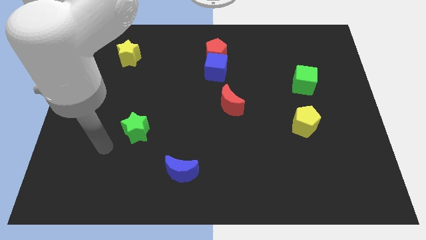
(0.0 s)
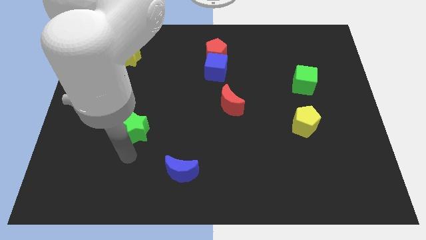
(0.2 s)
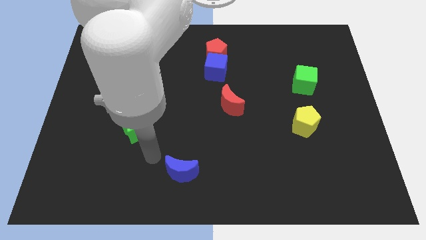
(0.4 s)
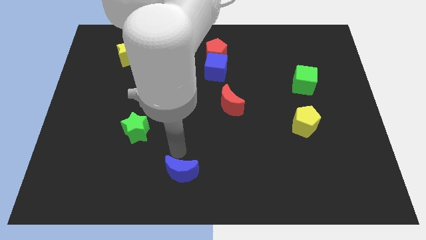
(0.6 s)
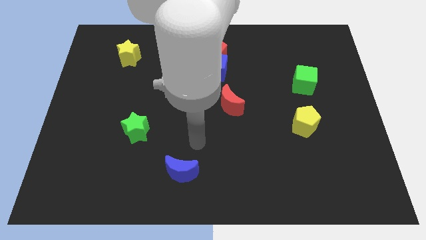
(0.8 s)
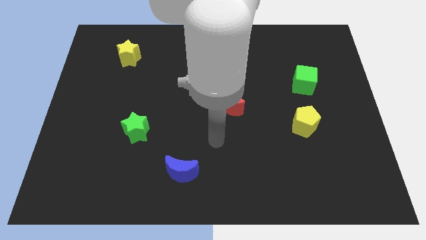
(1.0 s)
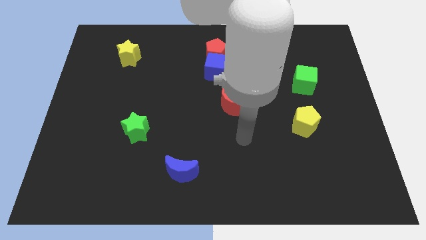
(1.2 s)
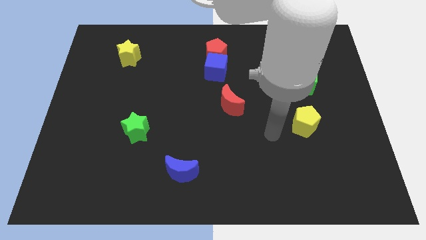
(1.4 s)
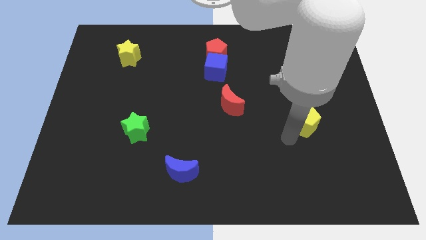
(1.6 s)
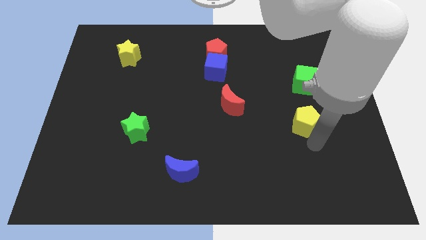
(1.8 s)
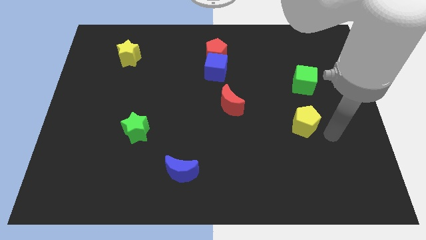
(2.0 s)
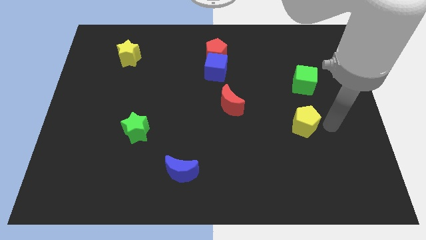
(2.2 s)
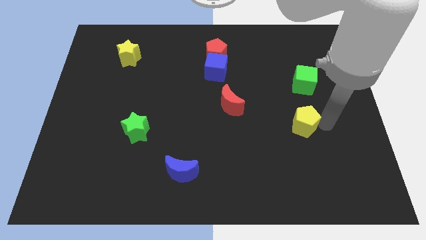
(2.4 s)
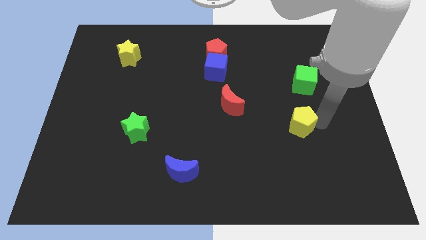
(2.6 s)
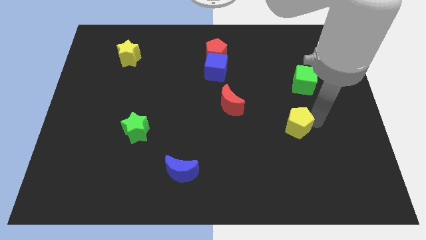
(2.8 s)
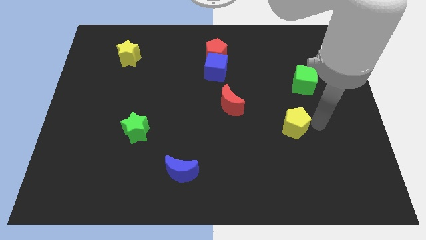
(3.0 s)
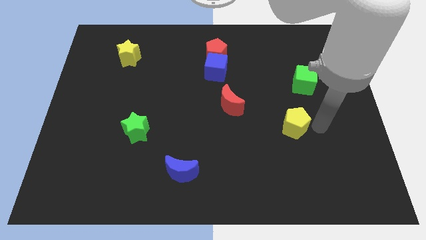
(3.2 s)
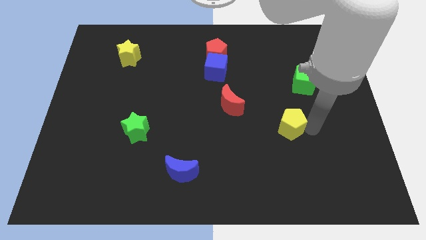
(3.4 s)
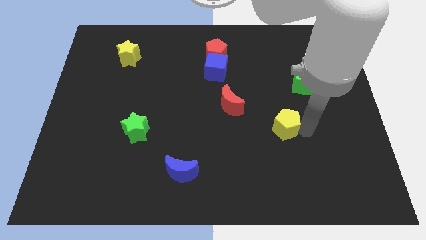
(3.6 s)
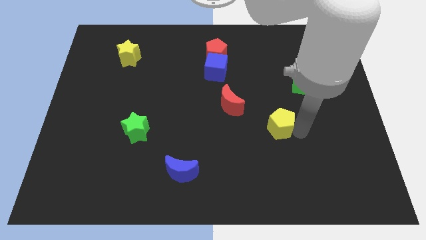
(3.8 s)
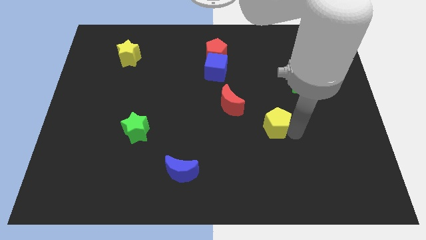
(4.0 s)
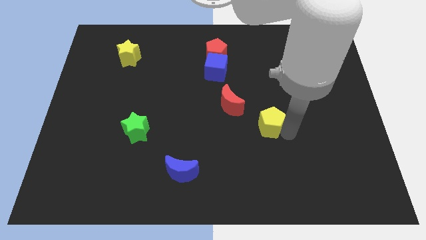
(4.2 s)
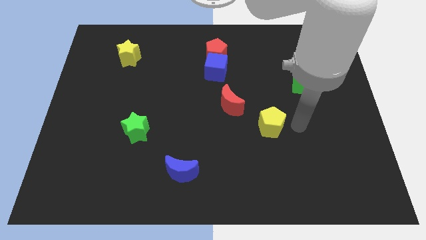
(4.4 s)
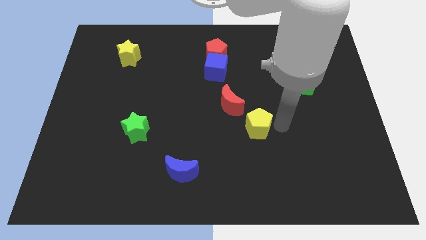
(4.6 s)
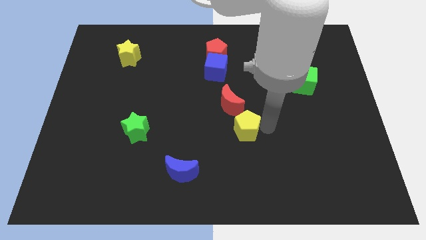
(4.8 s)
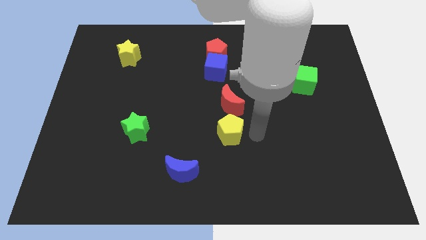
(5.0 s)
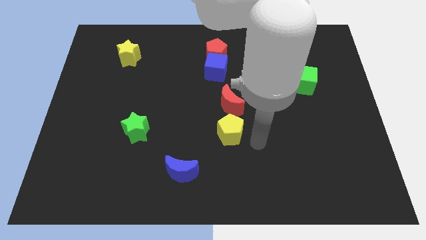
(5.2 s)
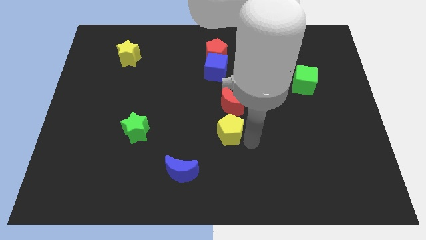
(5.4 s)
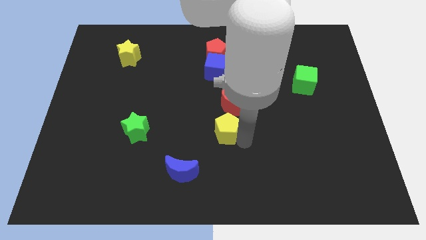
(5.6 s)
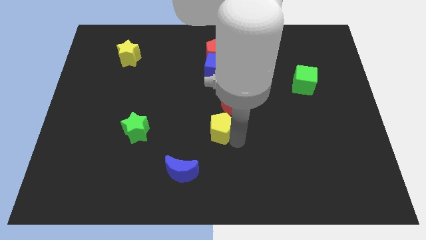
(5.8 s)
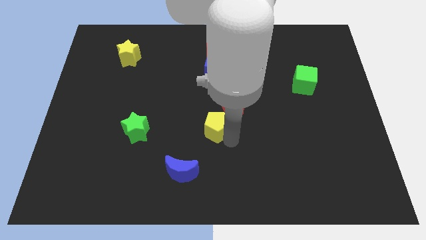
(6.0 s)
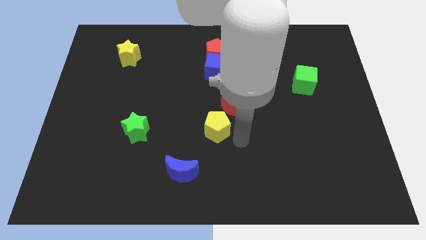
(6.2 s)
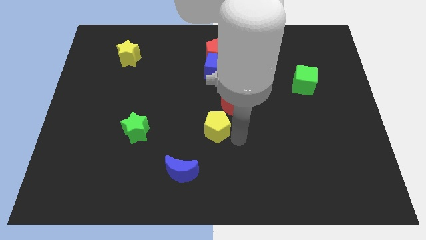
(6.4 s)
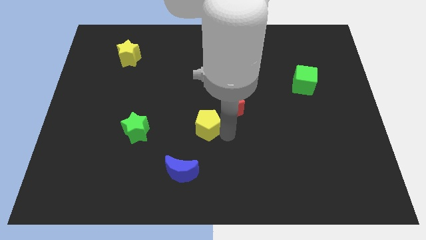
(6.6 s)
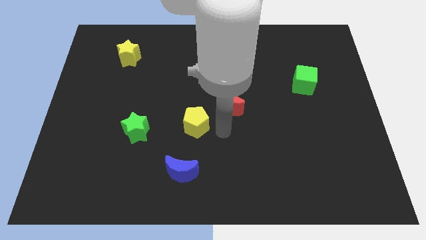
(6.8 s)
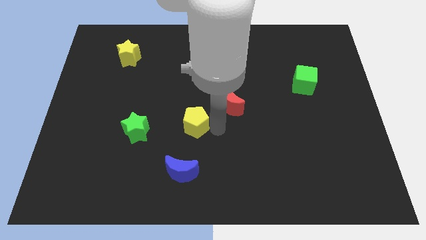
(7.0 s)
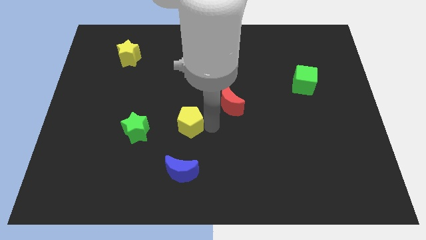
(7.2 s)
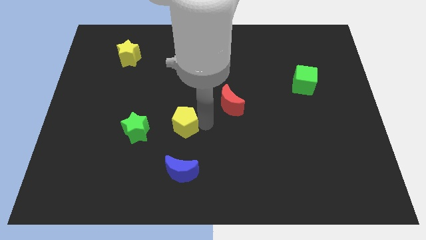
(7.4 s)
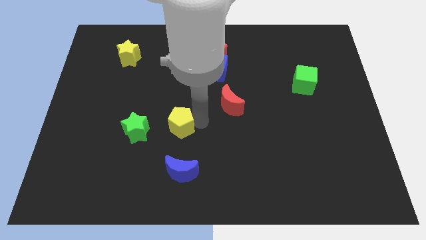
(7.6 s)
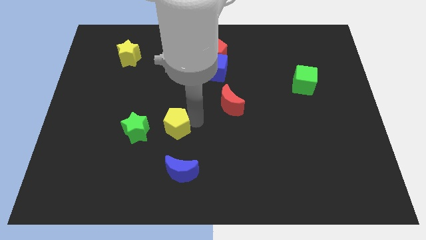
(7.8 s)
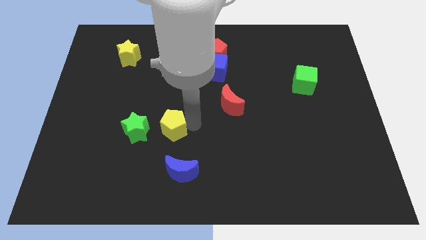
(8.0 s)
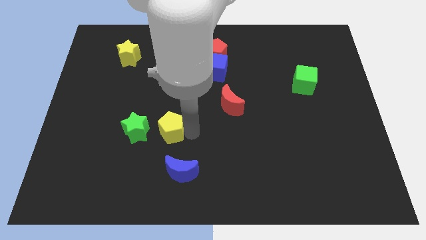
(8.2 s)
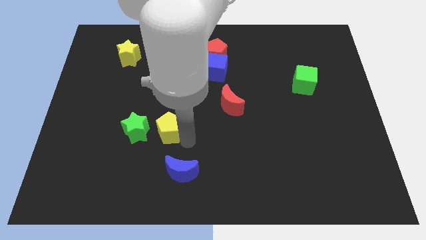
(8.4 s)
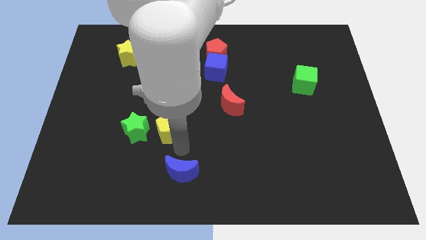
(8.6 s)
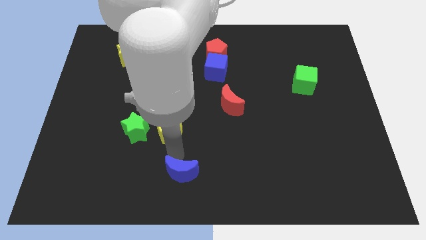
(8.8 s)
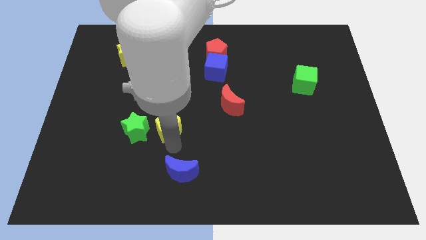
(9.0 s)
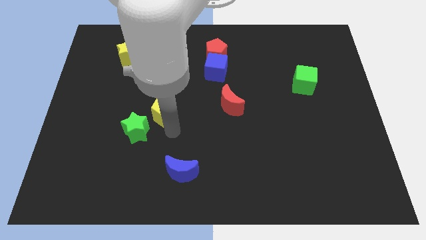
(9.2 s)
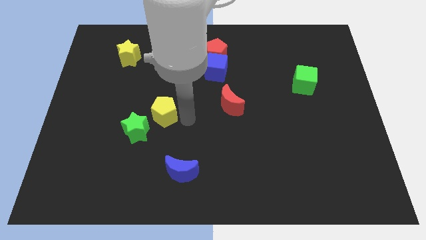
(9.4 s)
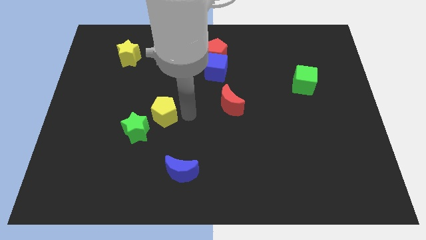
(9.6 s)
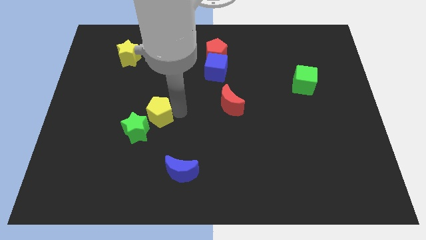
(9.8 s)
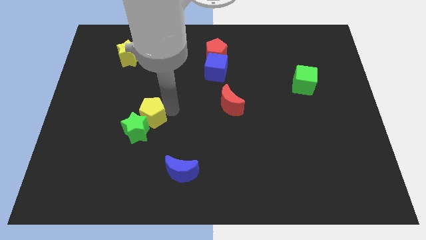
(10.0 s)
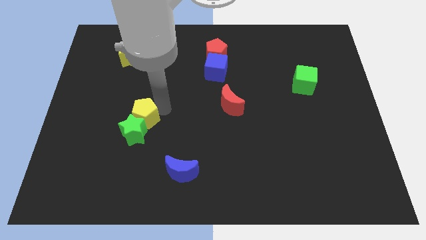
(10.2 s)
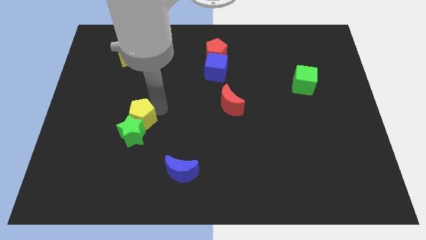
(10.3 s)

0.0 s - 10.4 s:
put the yellow pentagon to the top left of the green star

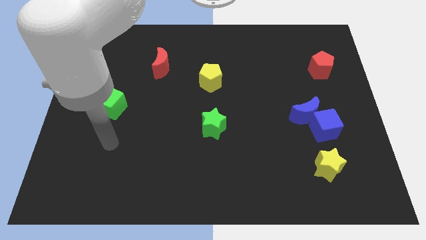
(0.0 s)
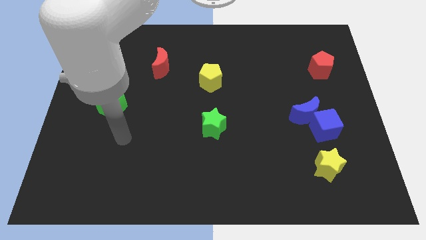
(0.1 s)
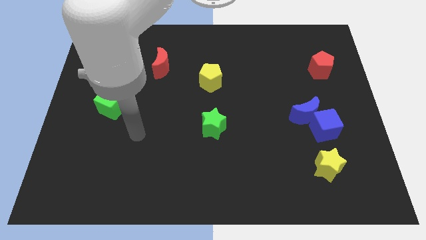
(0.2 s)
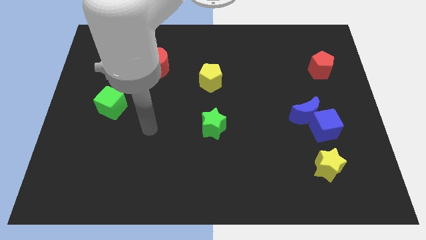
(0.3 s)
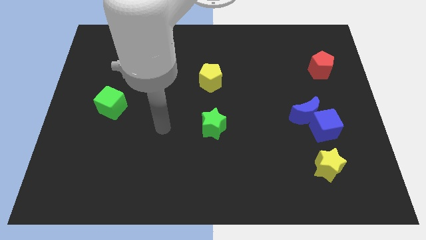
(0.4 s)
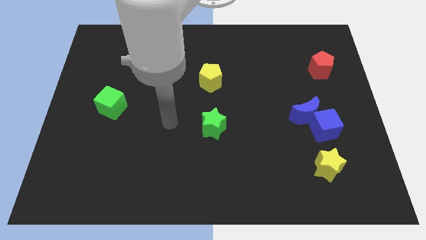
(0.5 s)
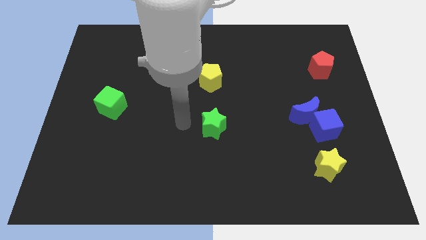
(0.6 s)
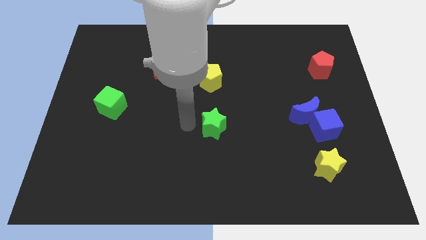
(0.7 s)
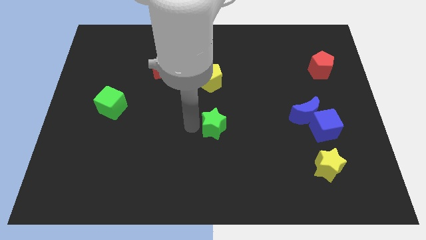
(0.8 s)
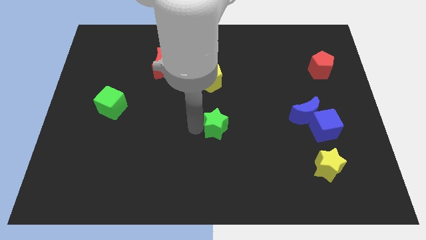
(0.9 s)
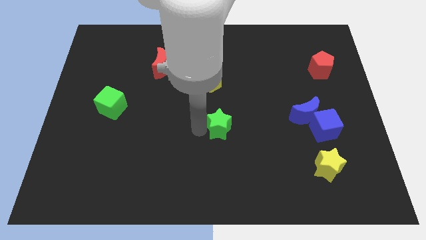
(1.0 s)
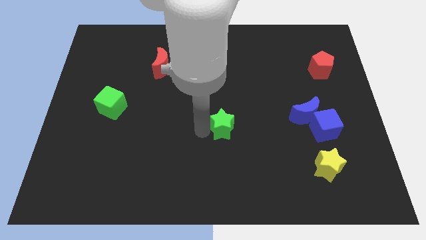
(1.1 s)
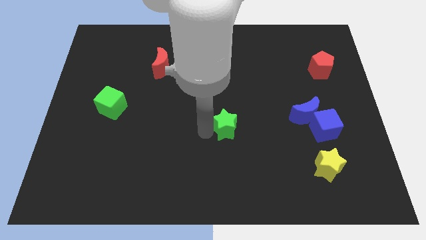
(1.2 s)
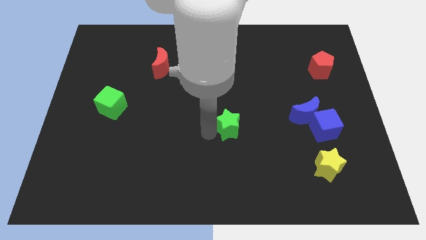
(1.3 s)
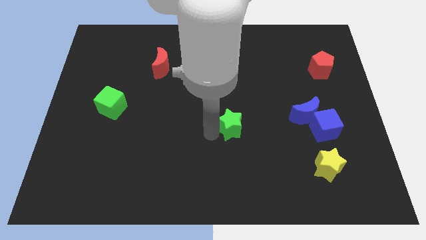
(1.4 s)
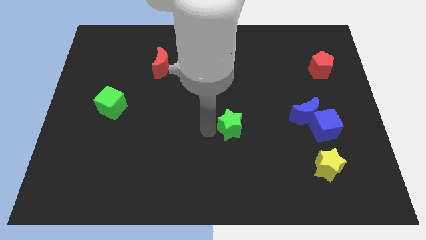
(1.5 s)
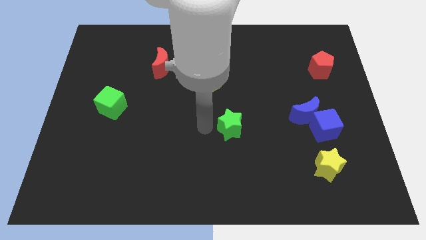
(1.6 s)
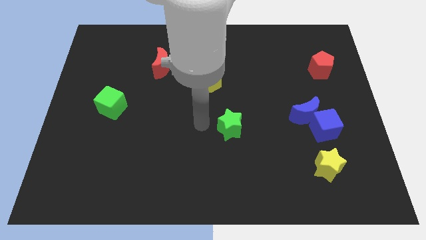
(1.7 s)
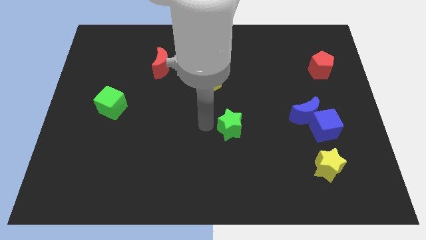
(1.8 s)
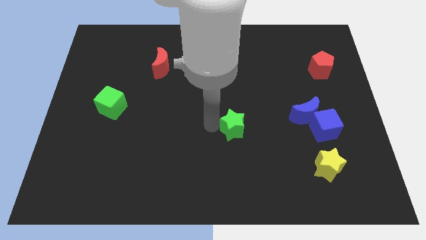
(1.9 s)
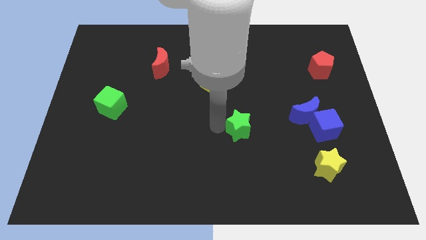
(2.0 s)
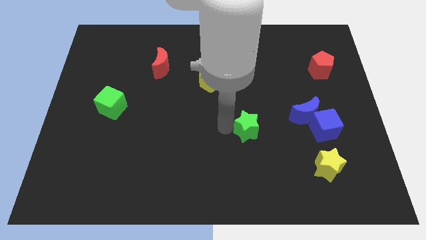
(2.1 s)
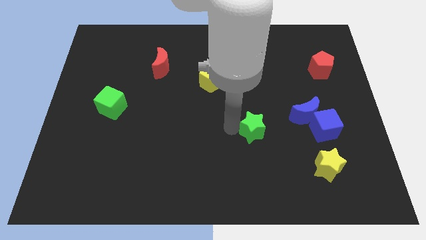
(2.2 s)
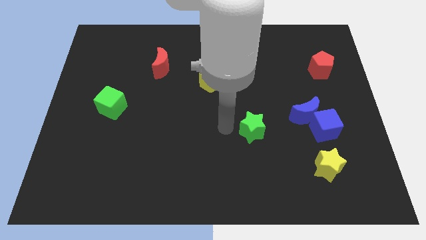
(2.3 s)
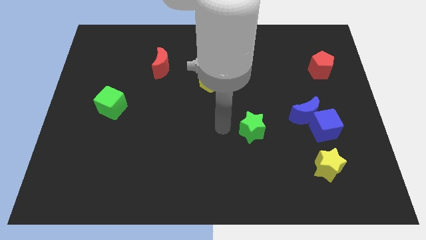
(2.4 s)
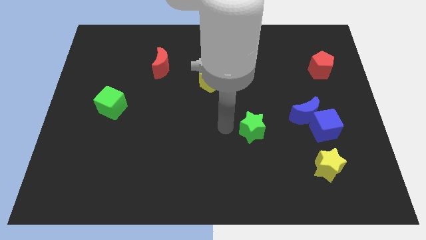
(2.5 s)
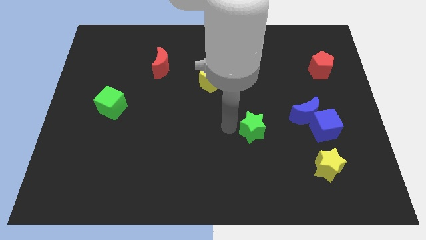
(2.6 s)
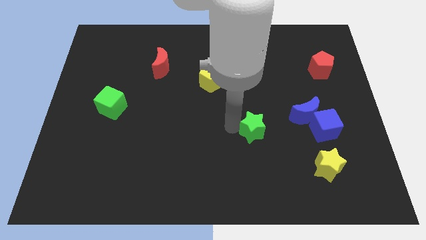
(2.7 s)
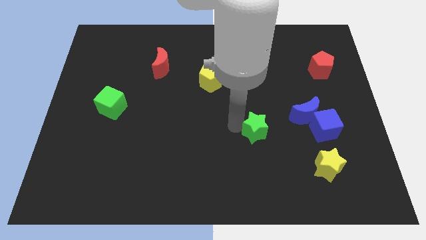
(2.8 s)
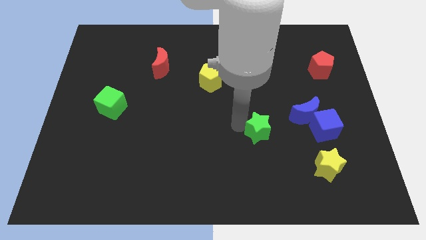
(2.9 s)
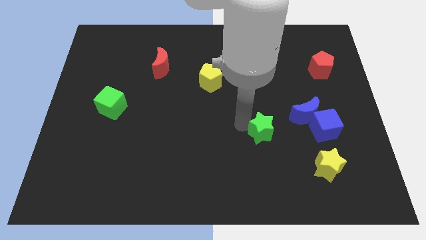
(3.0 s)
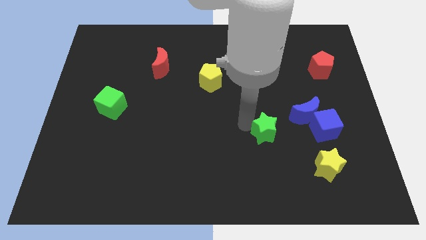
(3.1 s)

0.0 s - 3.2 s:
move the green star to the bottom left of the blue moon
